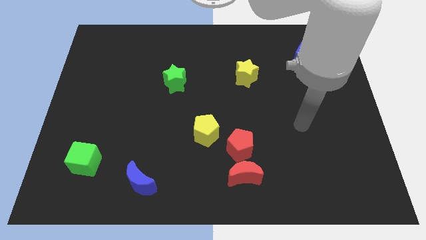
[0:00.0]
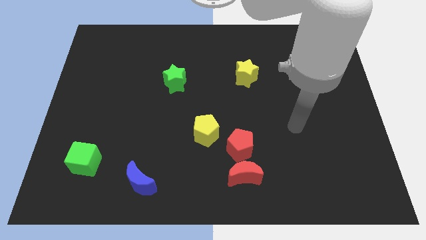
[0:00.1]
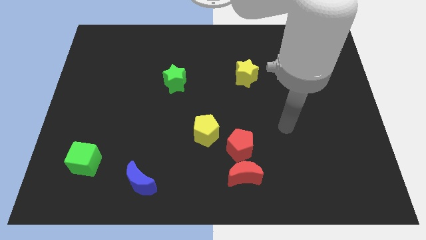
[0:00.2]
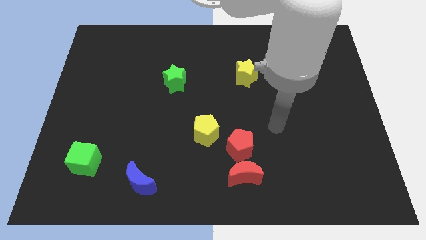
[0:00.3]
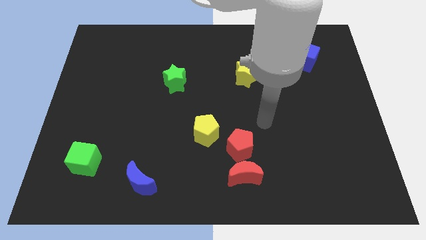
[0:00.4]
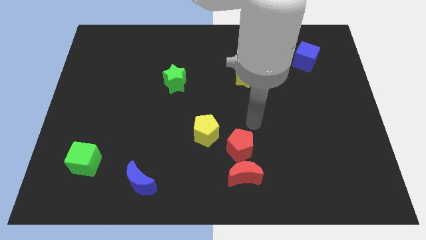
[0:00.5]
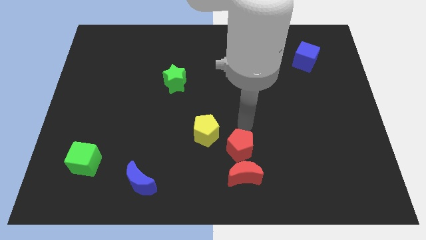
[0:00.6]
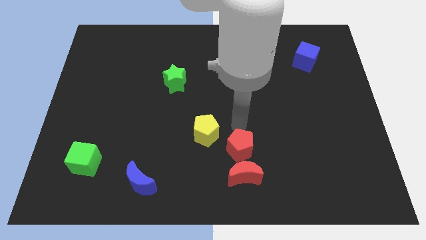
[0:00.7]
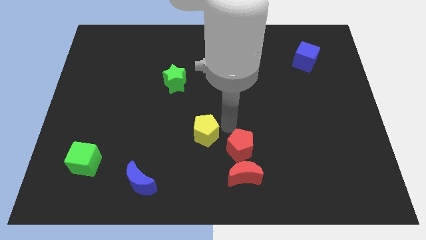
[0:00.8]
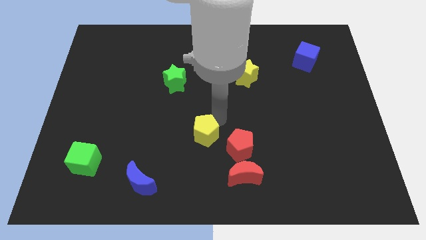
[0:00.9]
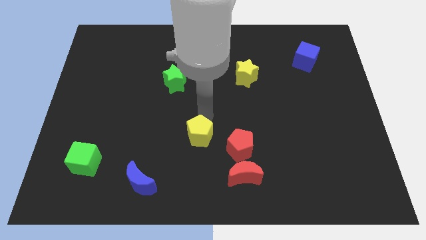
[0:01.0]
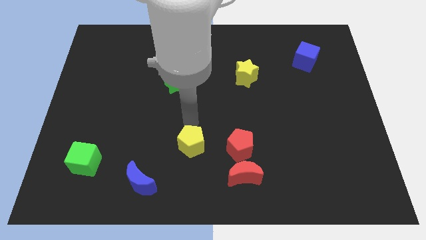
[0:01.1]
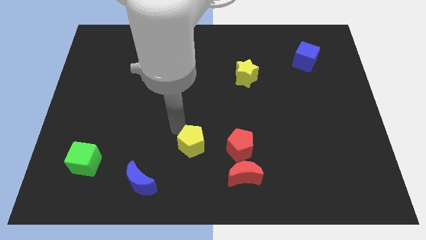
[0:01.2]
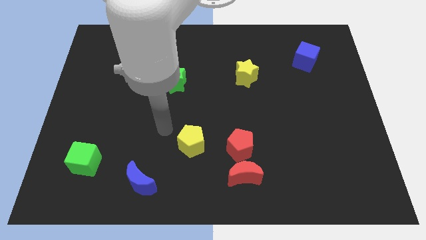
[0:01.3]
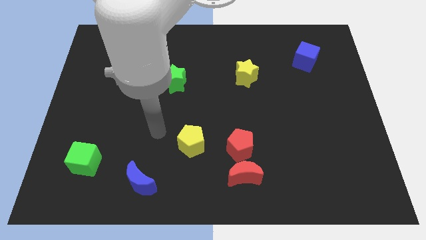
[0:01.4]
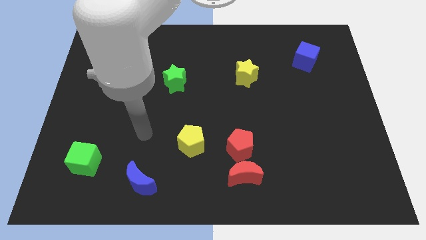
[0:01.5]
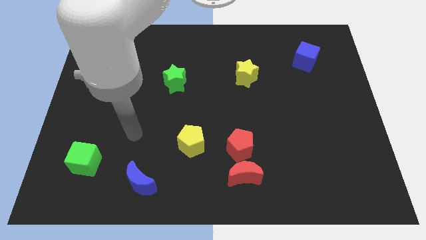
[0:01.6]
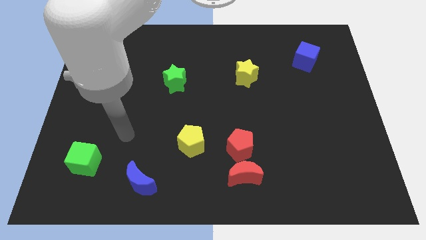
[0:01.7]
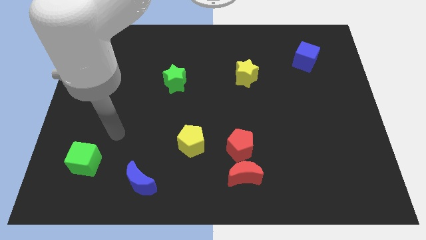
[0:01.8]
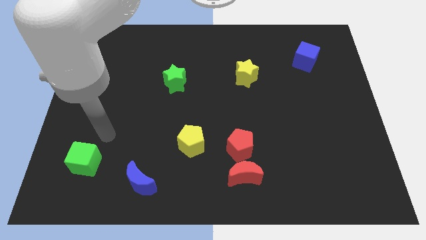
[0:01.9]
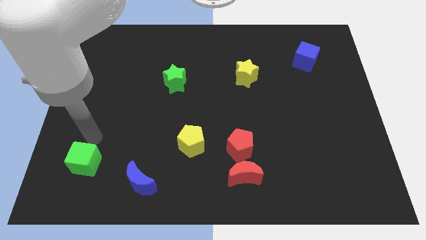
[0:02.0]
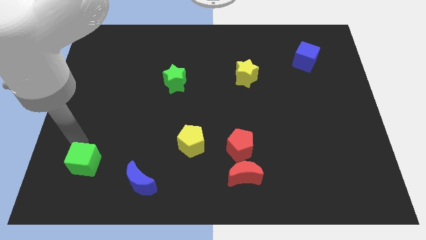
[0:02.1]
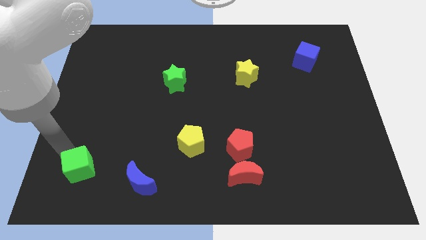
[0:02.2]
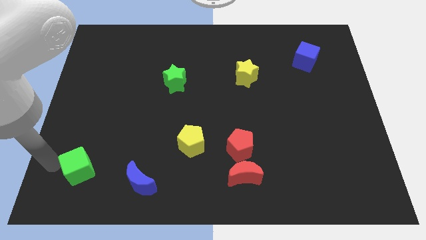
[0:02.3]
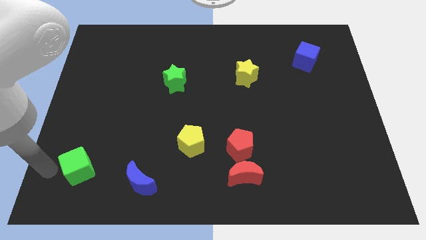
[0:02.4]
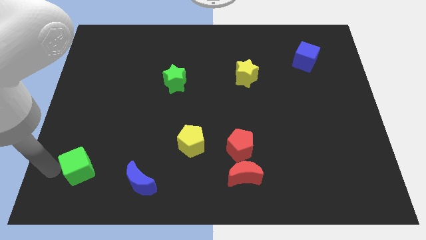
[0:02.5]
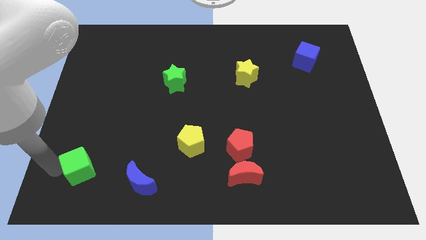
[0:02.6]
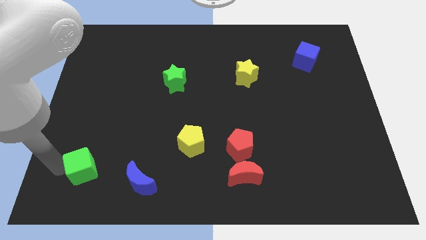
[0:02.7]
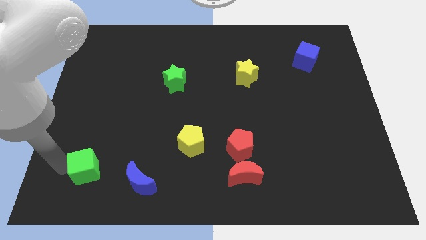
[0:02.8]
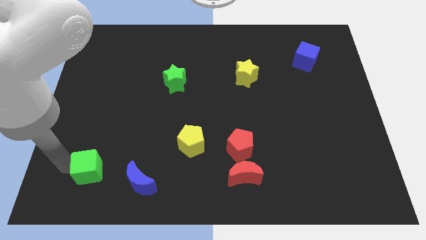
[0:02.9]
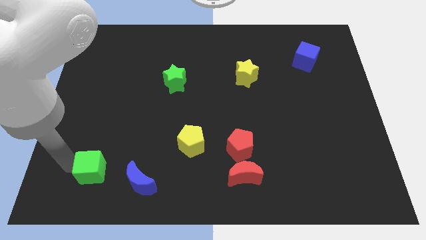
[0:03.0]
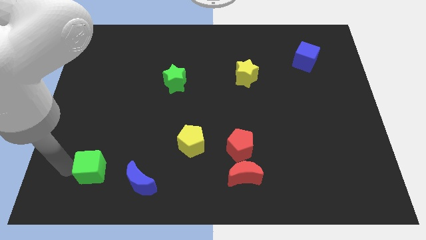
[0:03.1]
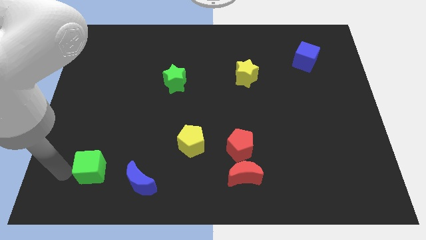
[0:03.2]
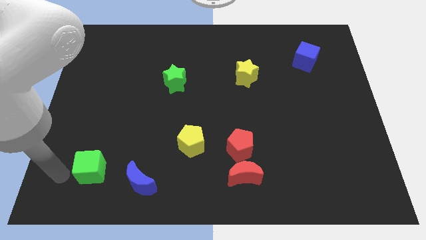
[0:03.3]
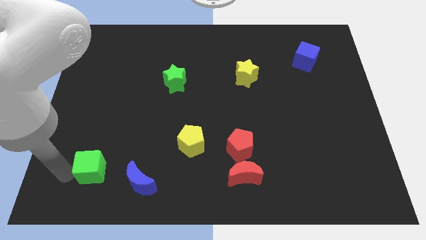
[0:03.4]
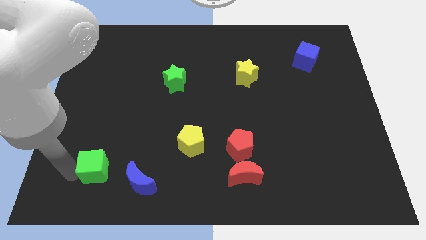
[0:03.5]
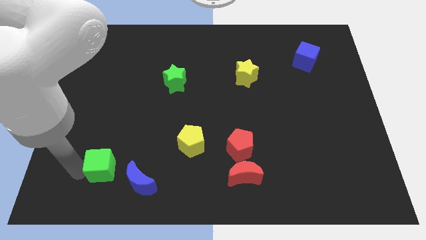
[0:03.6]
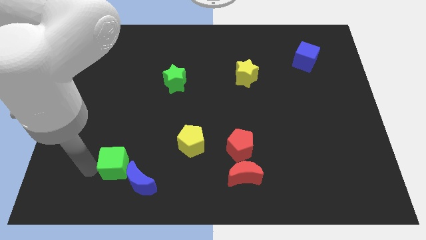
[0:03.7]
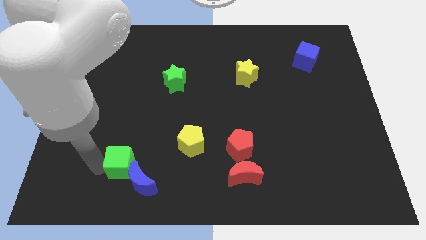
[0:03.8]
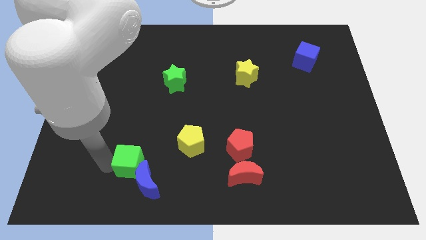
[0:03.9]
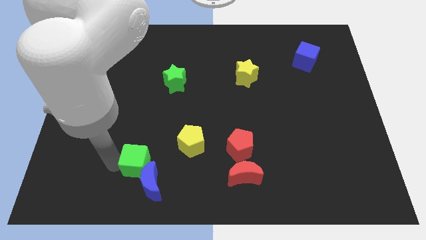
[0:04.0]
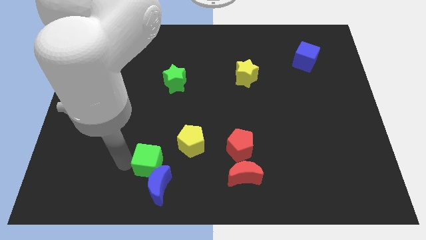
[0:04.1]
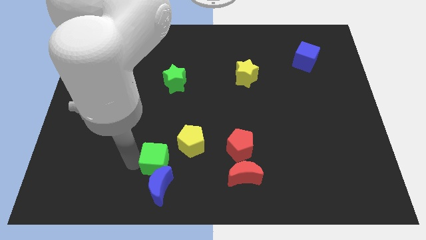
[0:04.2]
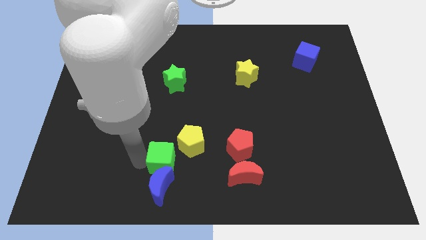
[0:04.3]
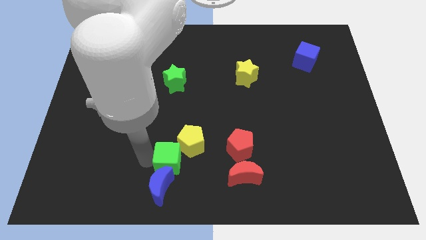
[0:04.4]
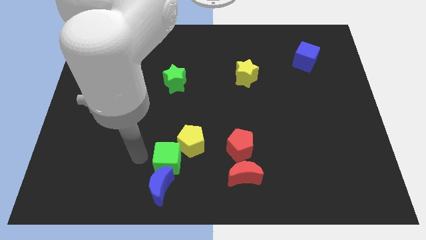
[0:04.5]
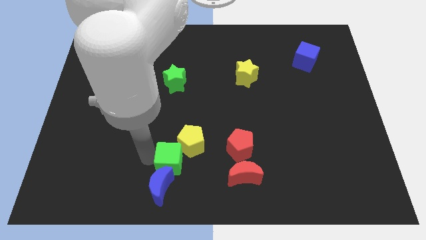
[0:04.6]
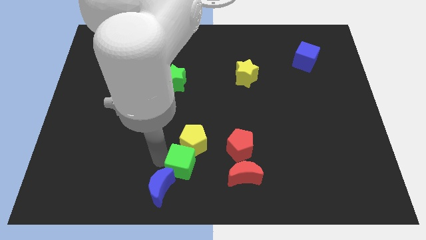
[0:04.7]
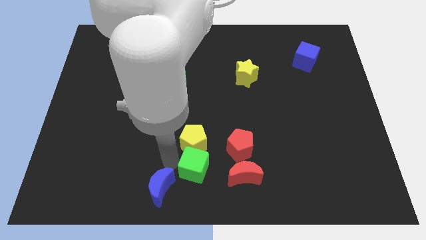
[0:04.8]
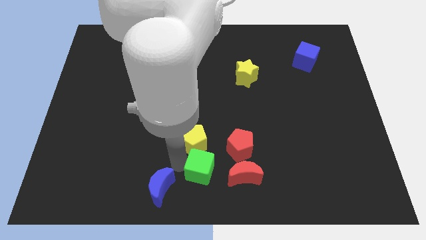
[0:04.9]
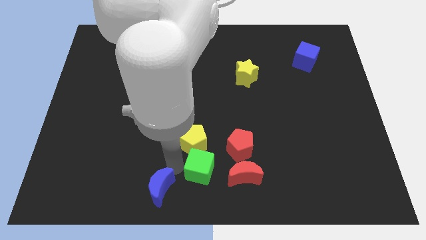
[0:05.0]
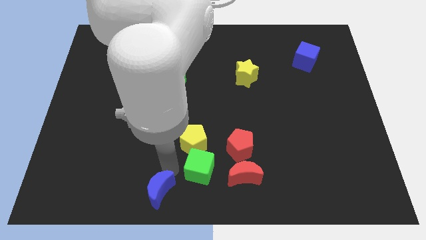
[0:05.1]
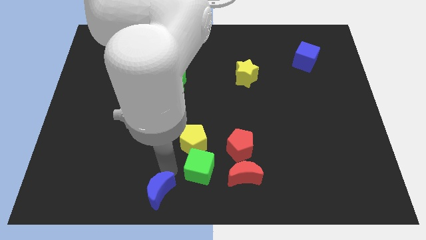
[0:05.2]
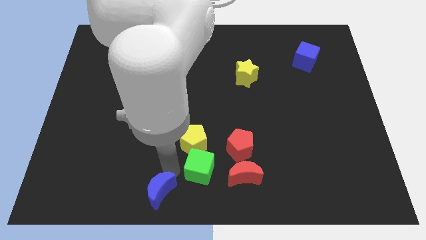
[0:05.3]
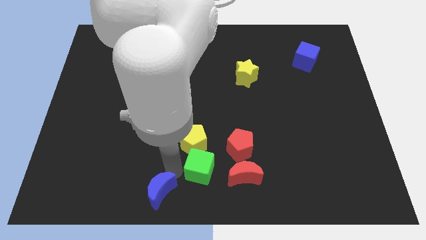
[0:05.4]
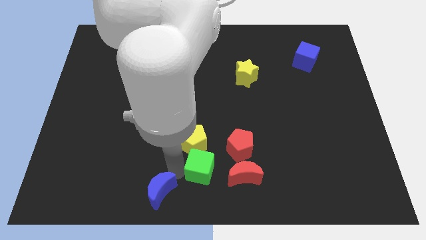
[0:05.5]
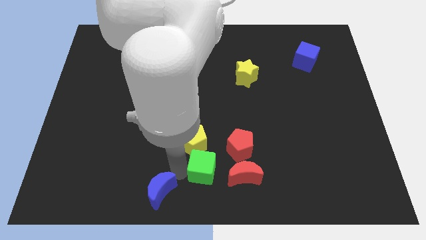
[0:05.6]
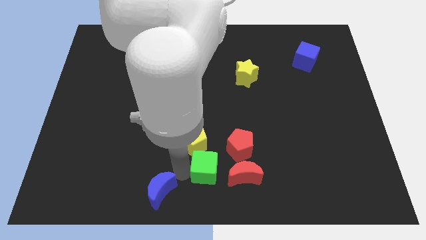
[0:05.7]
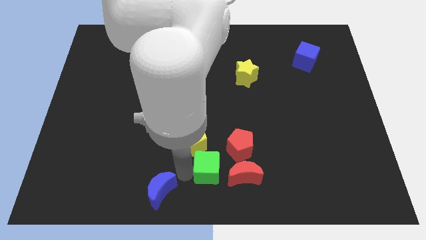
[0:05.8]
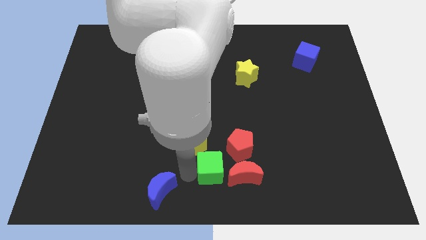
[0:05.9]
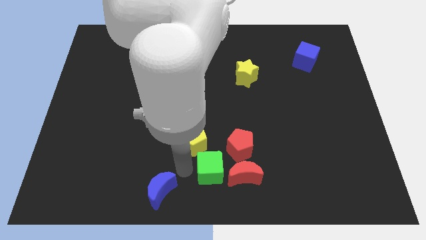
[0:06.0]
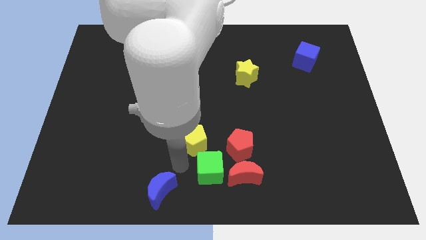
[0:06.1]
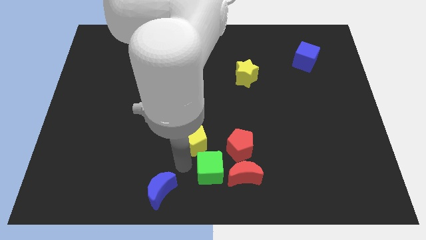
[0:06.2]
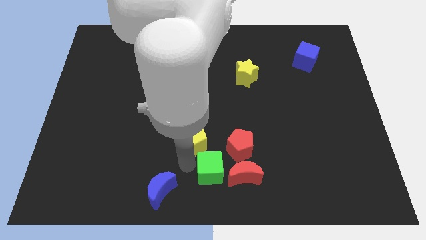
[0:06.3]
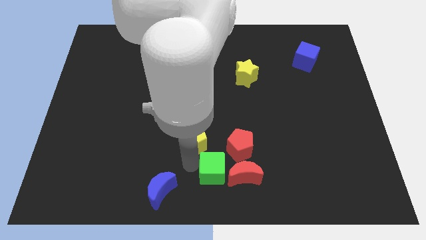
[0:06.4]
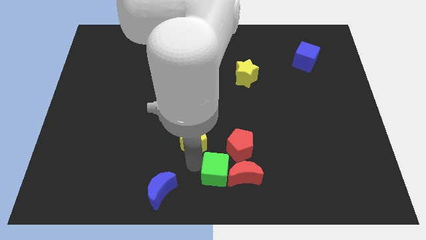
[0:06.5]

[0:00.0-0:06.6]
put the green cube to the red moon

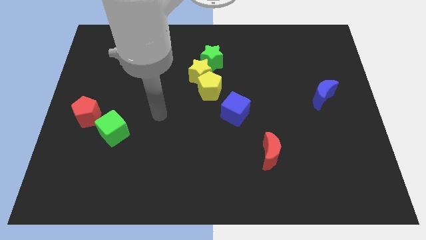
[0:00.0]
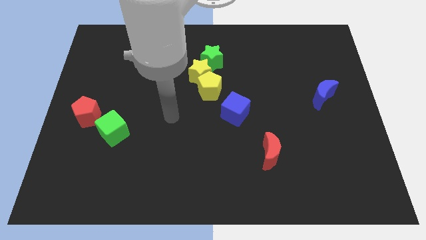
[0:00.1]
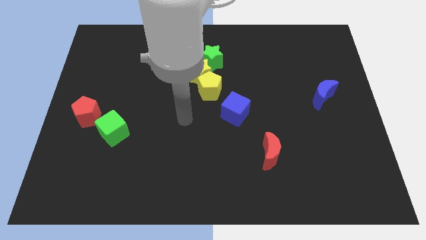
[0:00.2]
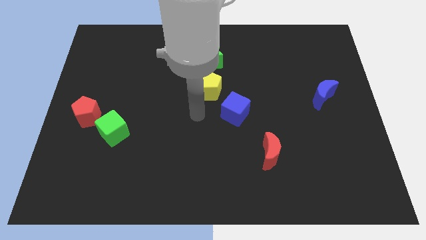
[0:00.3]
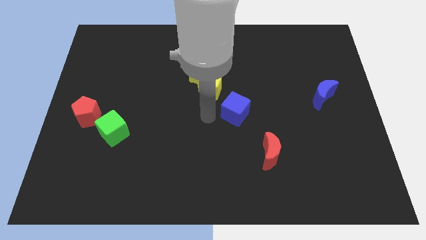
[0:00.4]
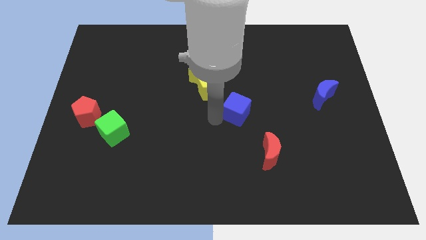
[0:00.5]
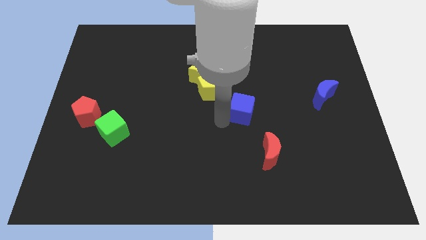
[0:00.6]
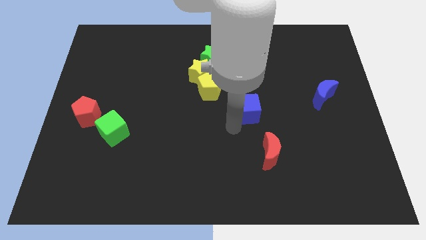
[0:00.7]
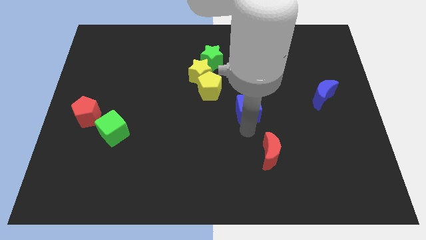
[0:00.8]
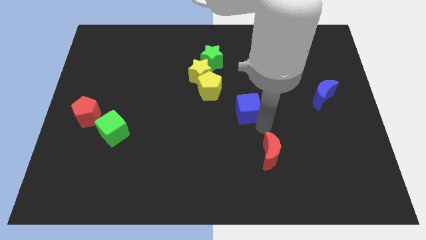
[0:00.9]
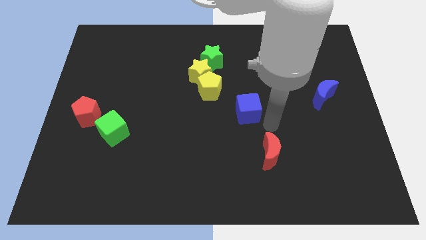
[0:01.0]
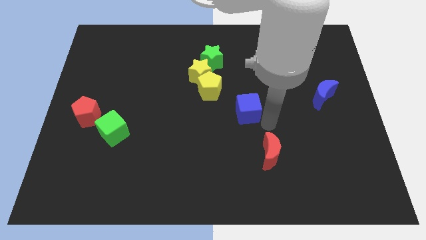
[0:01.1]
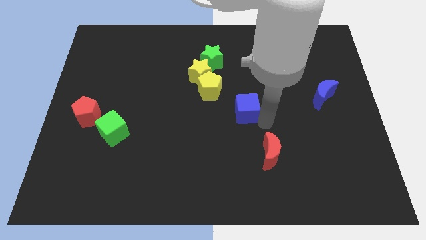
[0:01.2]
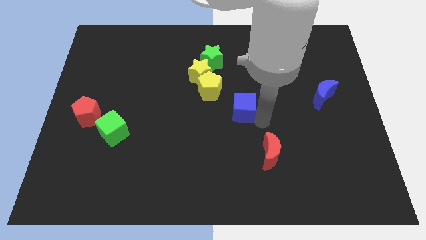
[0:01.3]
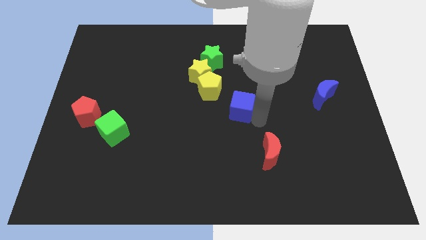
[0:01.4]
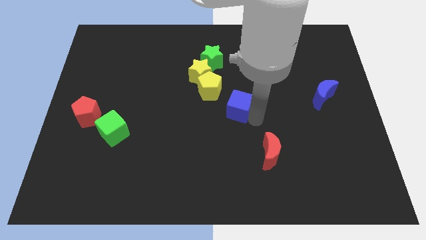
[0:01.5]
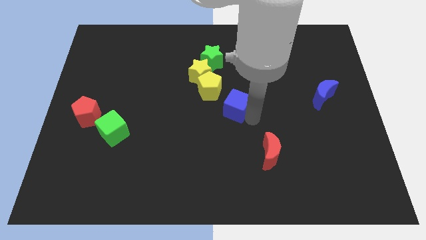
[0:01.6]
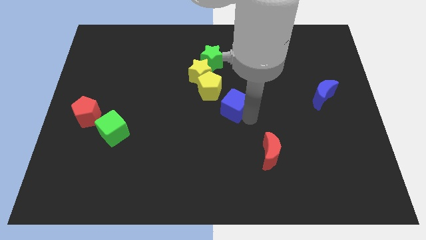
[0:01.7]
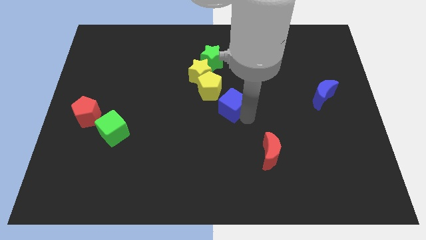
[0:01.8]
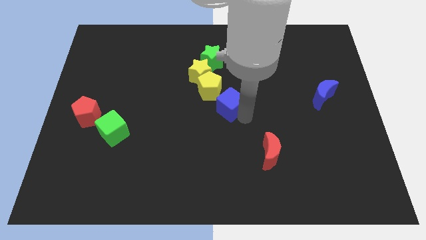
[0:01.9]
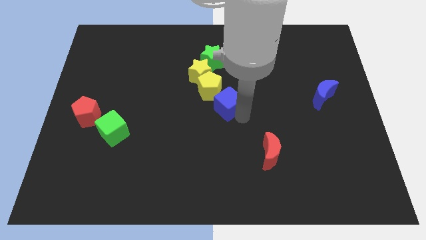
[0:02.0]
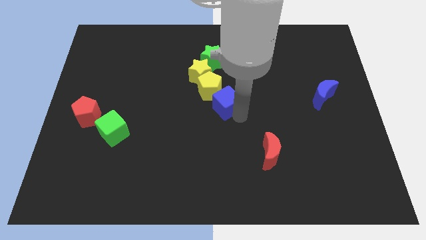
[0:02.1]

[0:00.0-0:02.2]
slide the blue cube to the yellow pentagon
